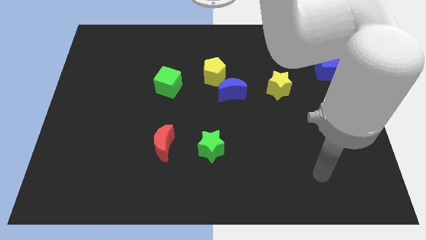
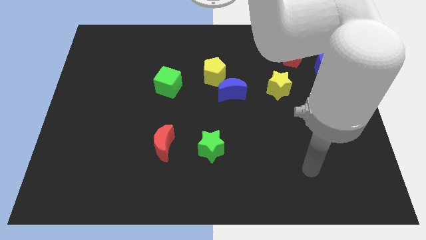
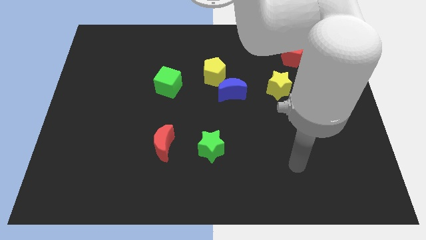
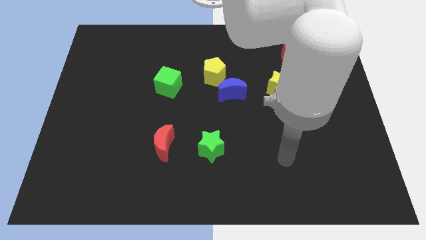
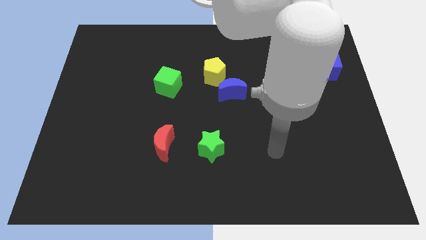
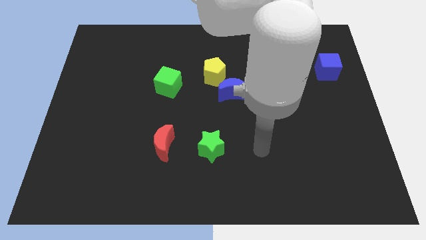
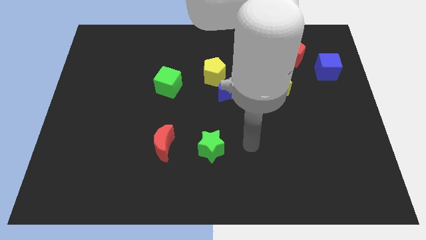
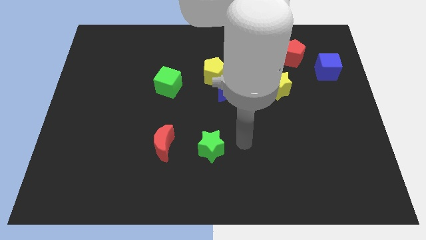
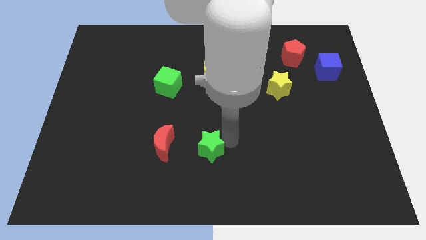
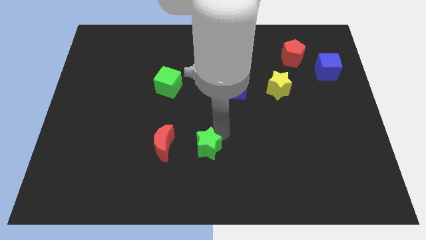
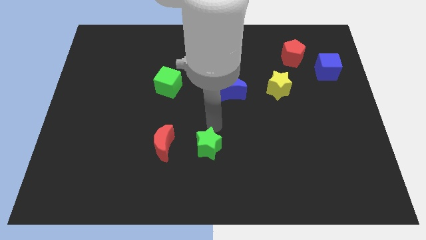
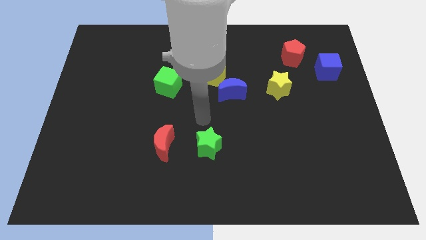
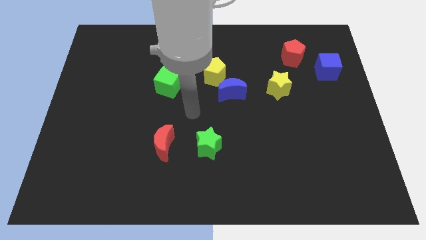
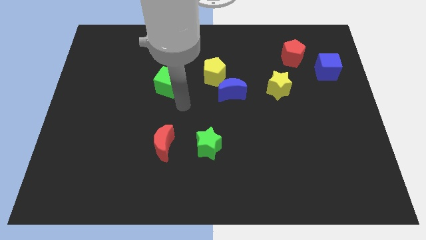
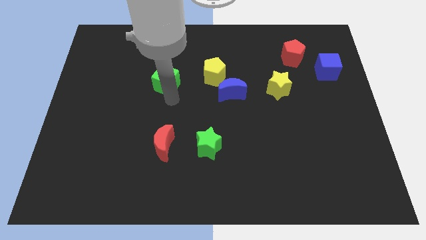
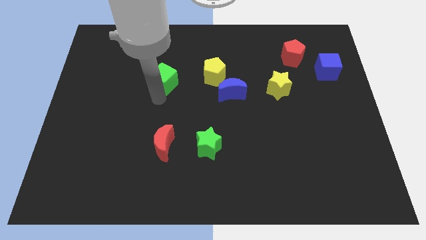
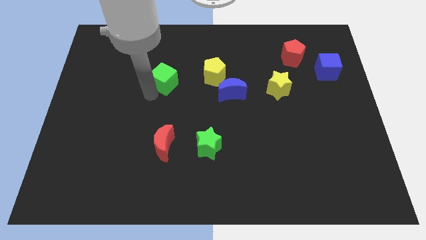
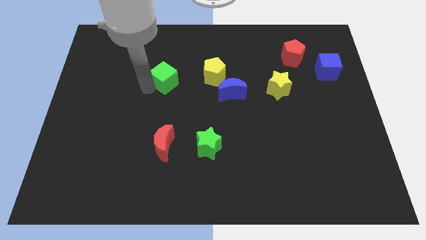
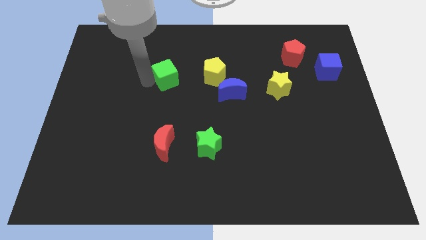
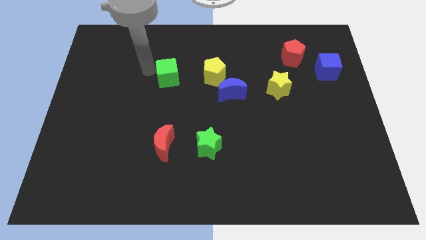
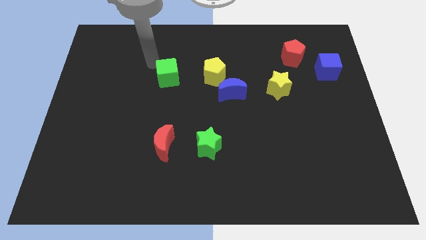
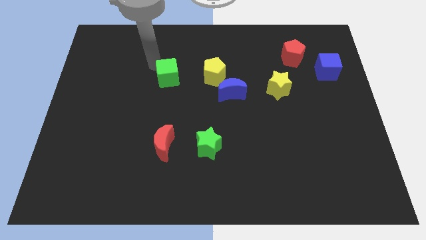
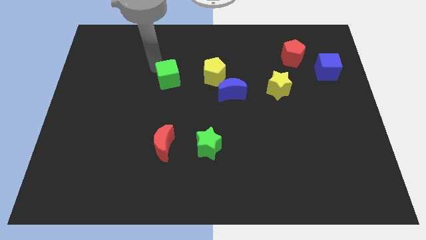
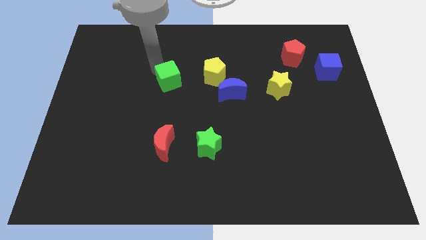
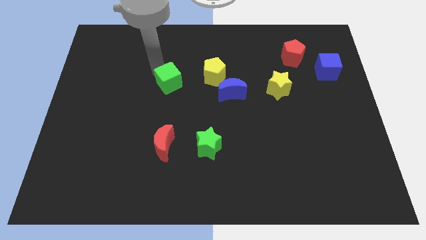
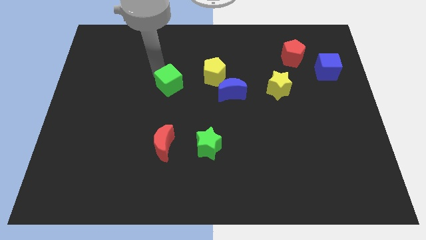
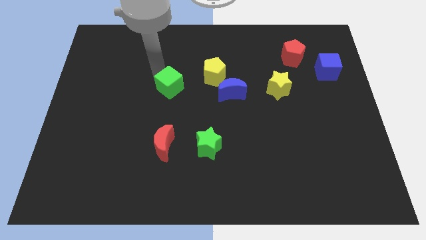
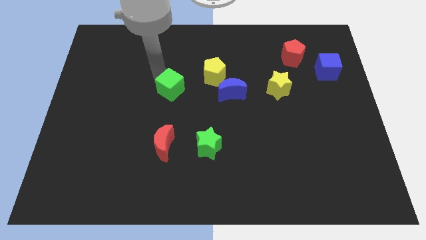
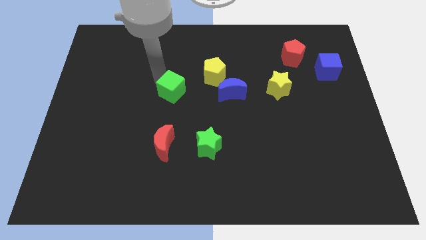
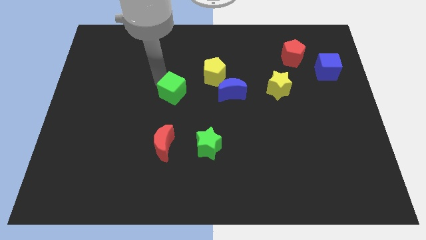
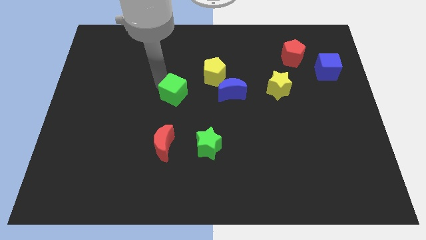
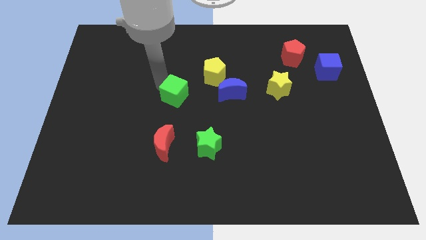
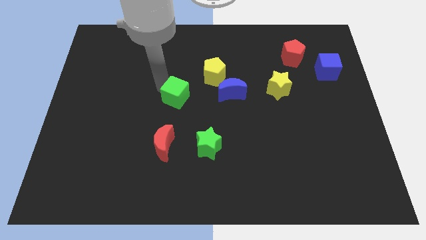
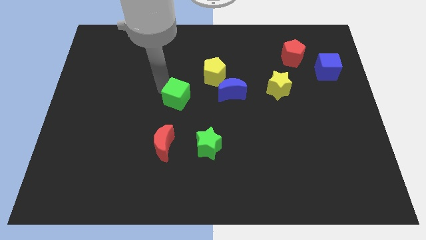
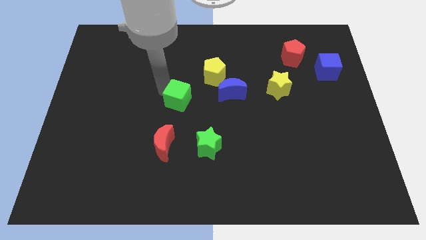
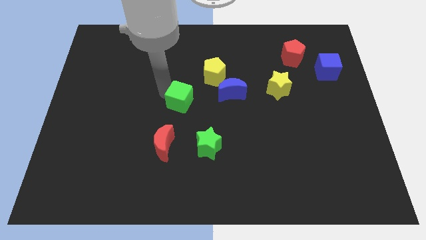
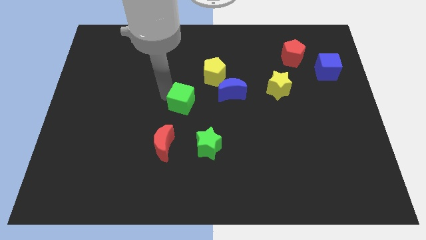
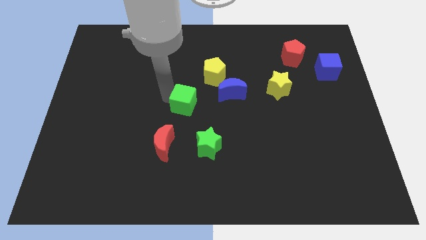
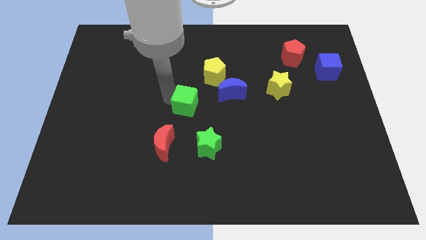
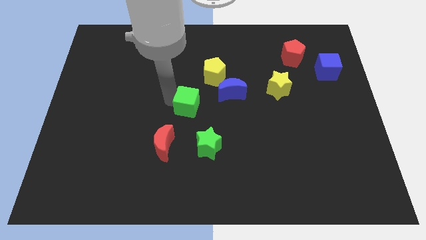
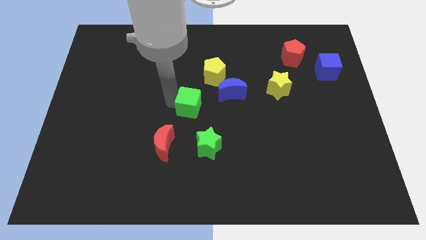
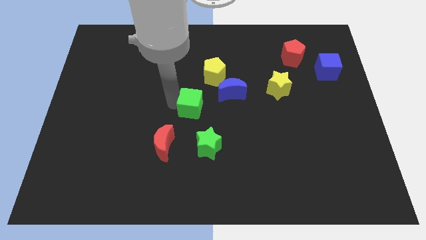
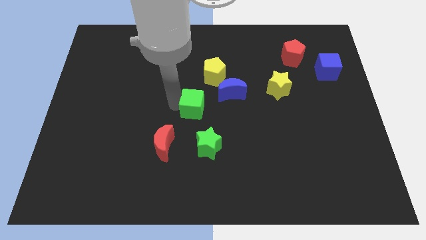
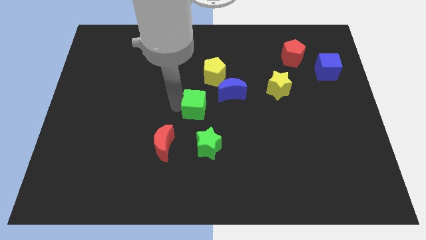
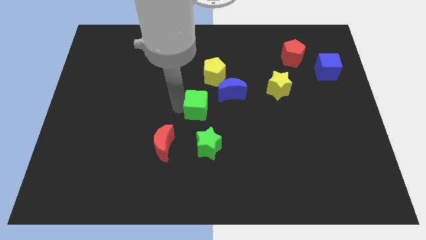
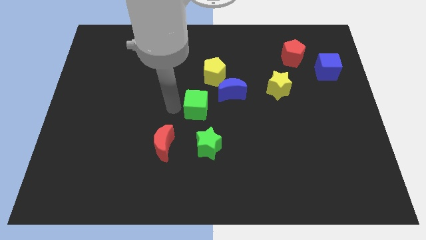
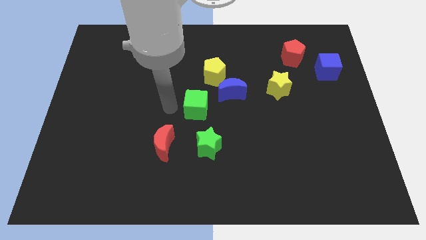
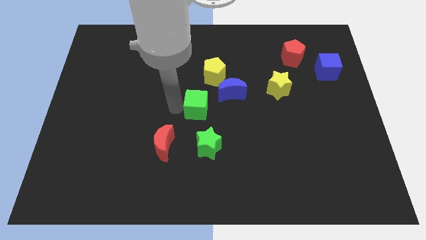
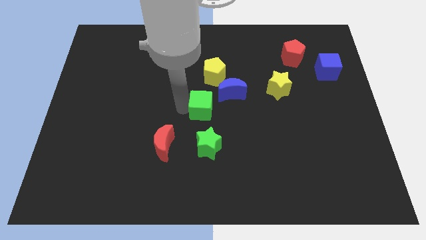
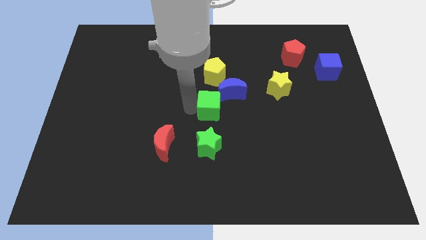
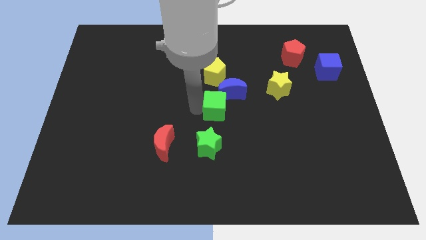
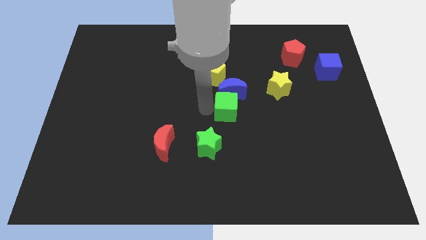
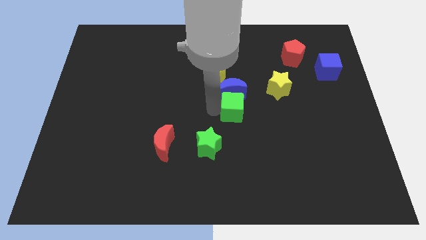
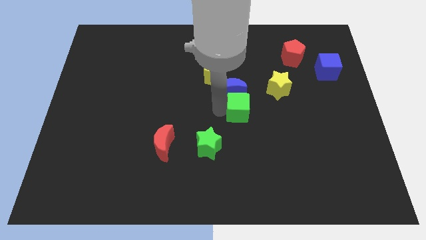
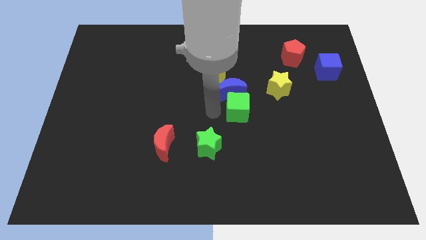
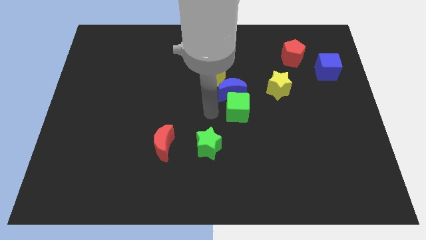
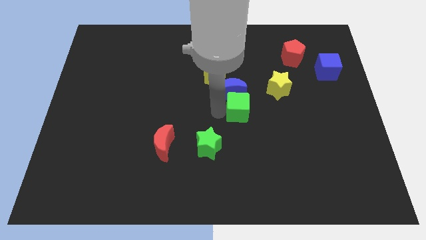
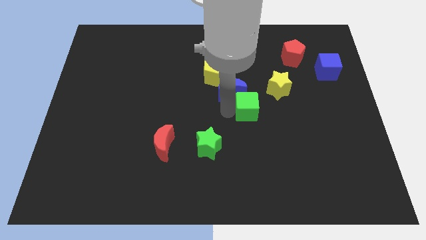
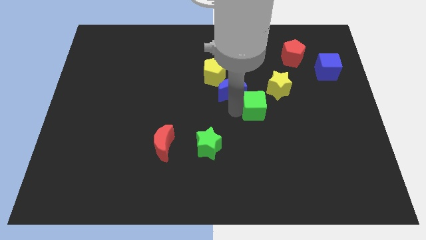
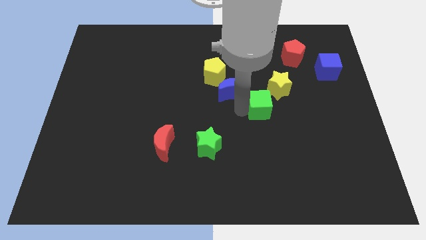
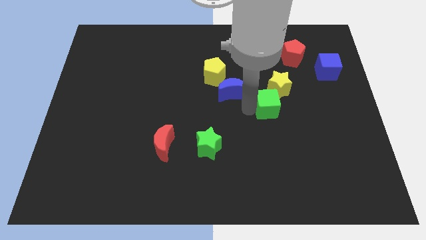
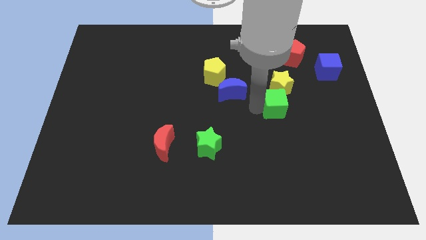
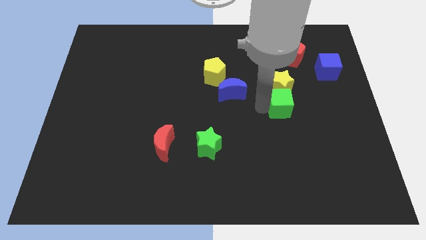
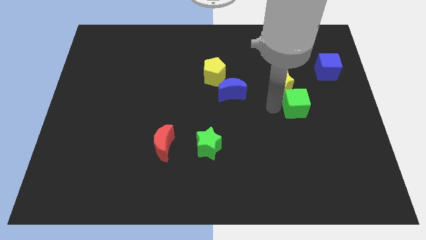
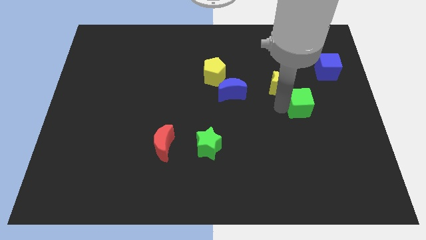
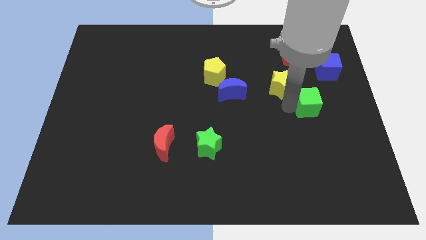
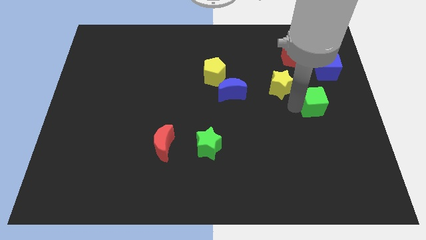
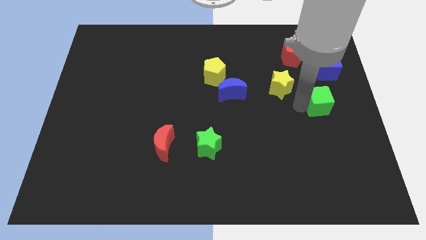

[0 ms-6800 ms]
move the green cube to the center right

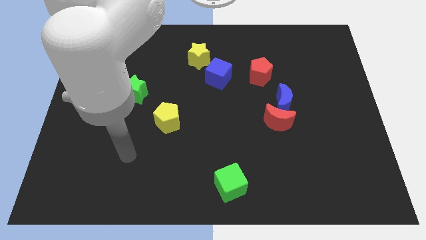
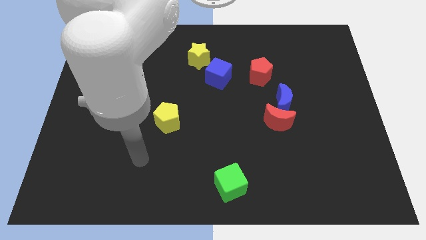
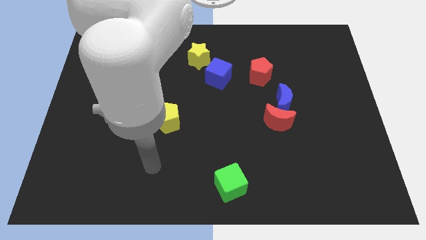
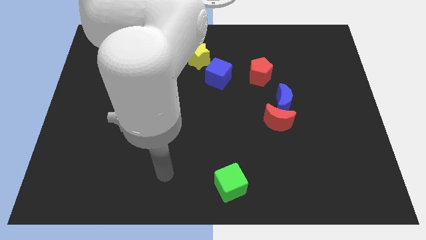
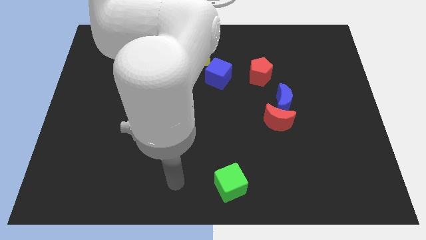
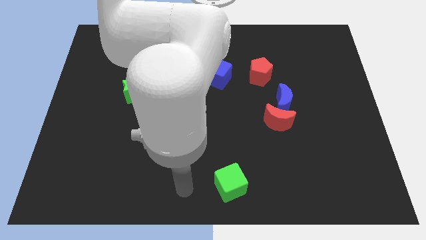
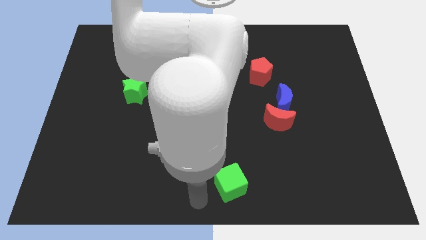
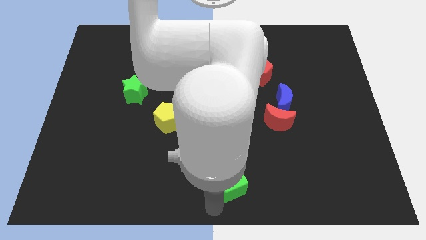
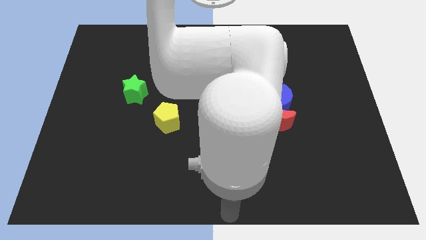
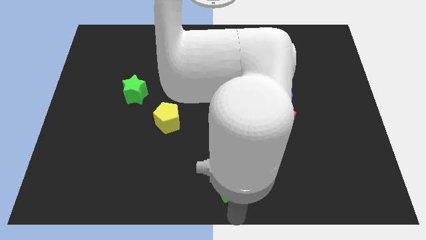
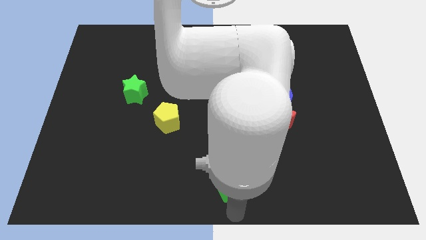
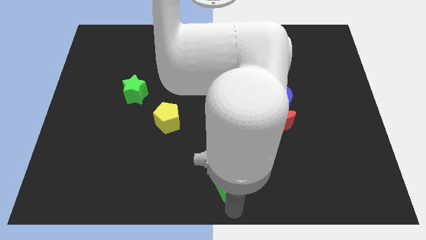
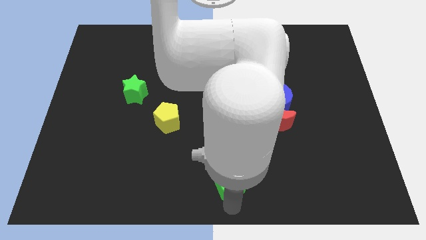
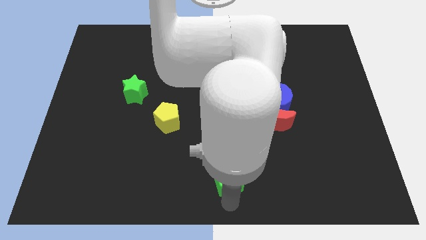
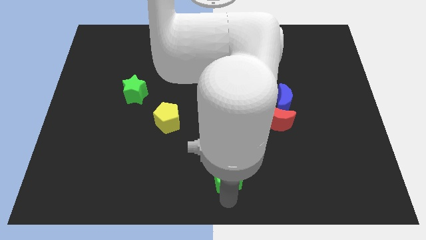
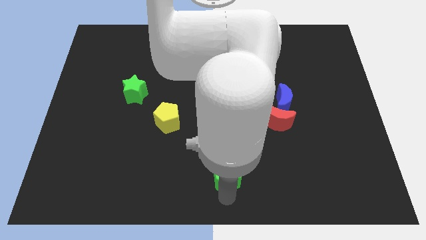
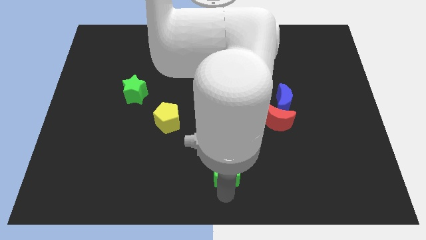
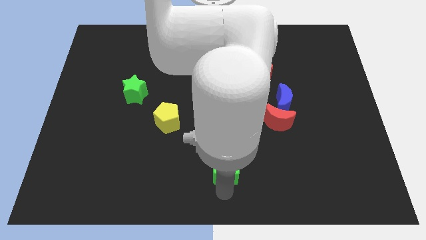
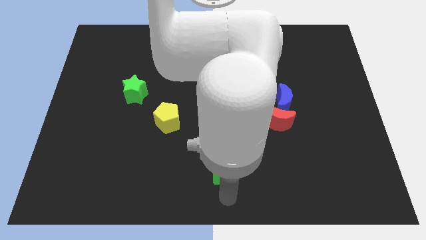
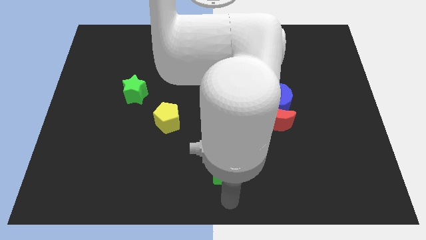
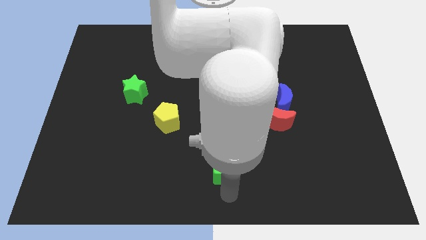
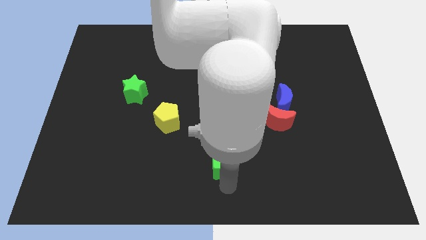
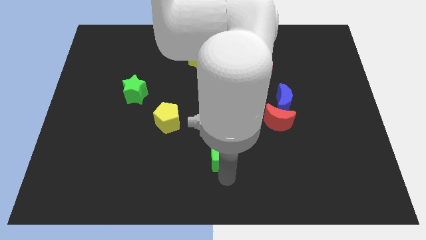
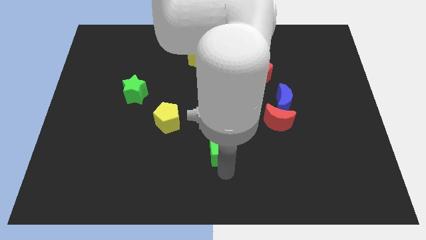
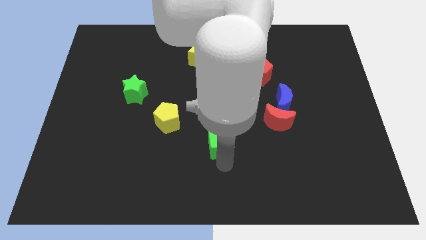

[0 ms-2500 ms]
put the green cube to the center
